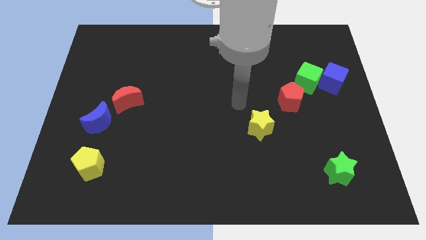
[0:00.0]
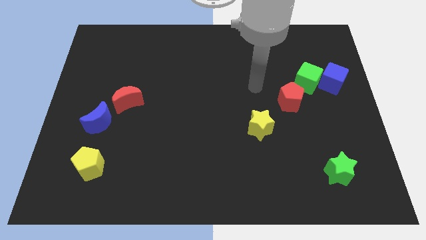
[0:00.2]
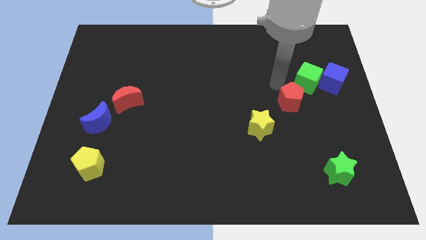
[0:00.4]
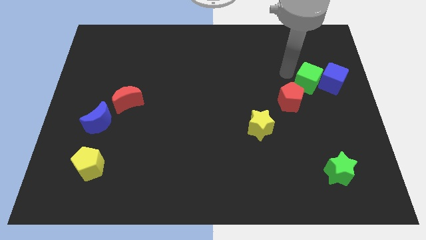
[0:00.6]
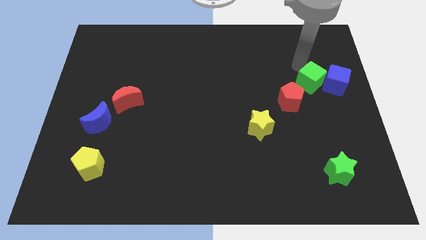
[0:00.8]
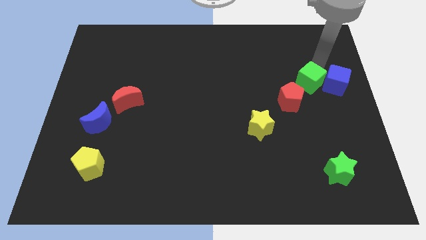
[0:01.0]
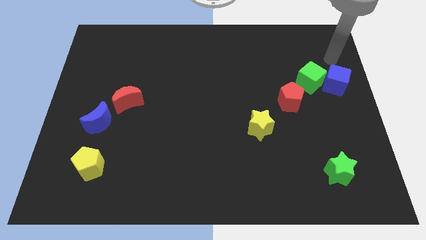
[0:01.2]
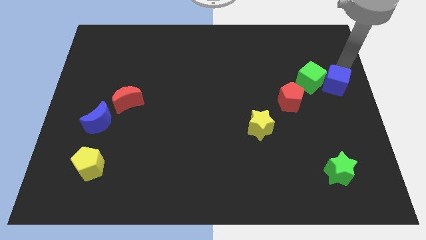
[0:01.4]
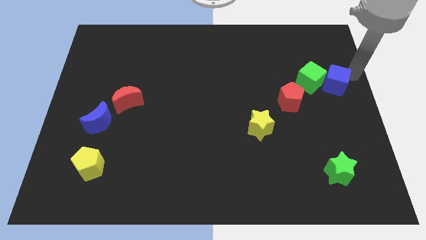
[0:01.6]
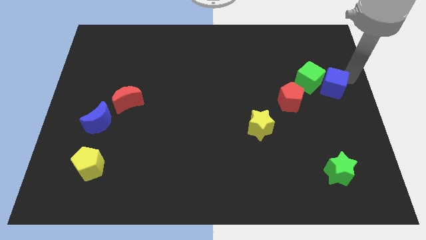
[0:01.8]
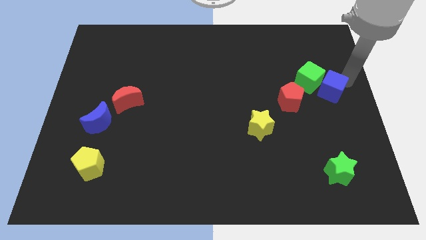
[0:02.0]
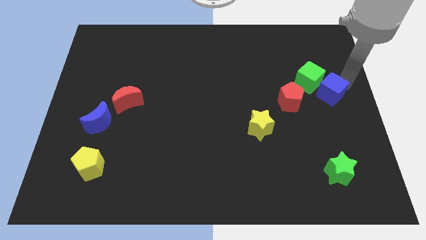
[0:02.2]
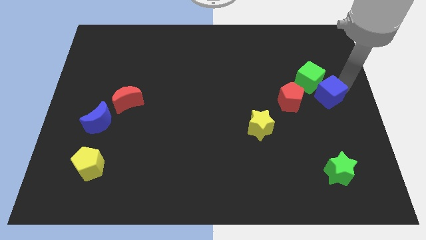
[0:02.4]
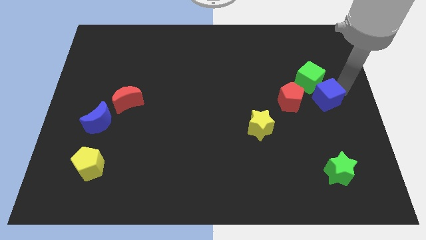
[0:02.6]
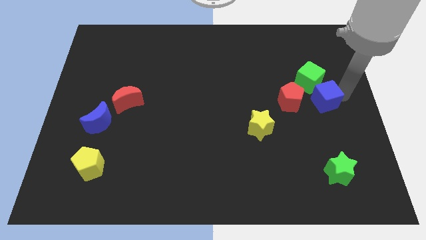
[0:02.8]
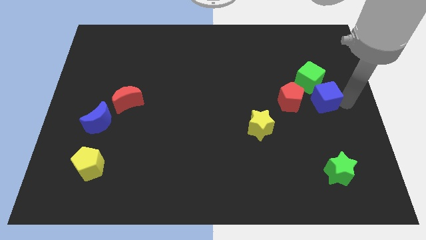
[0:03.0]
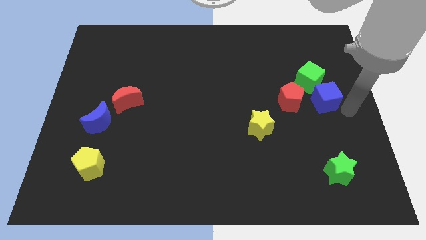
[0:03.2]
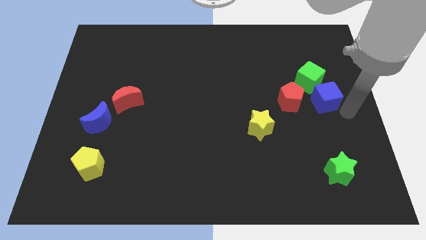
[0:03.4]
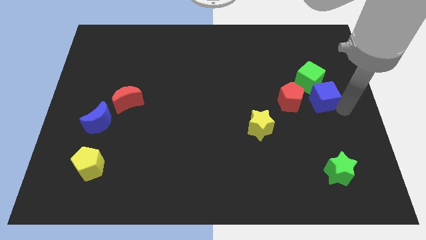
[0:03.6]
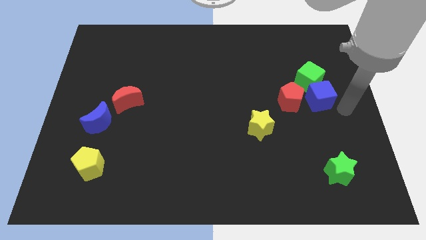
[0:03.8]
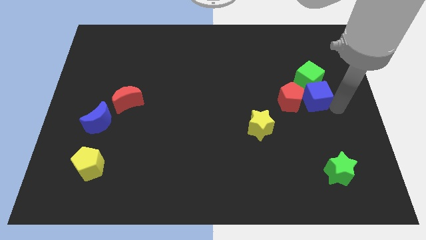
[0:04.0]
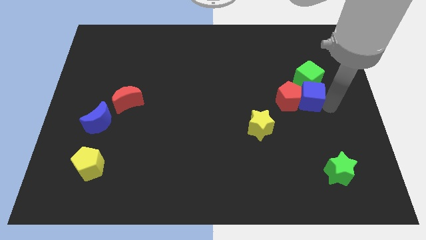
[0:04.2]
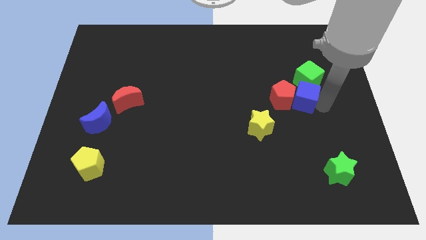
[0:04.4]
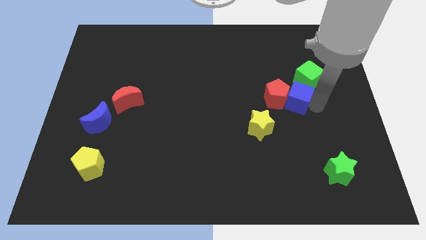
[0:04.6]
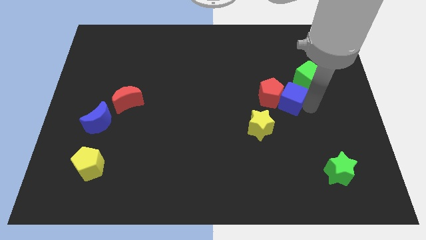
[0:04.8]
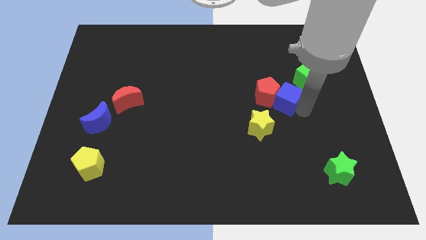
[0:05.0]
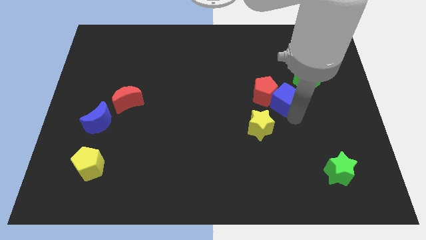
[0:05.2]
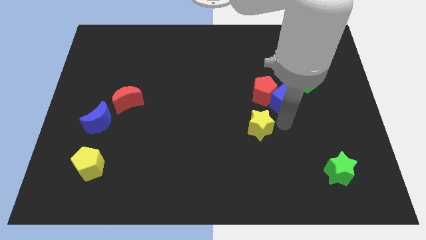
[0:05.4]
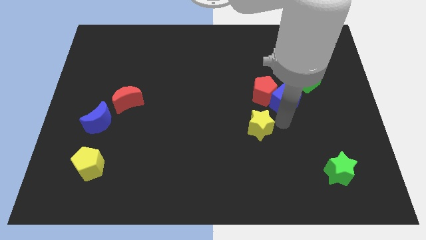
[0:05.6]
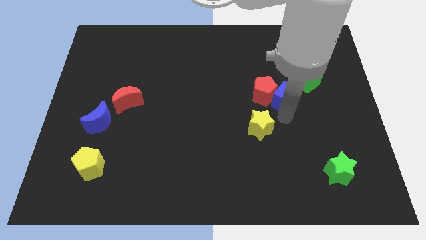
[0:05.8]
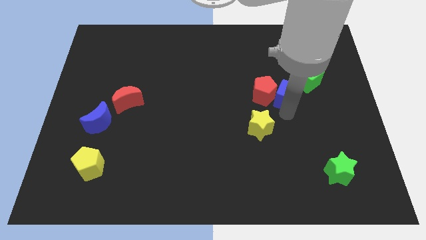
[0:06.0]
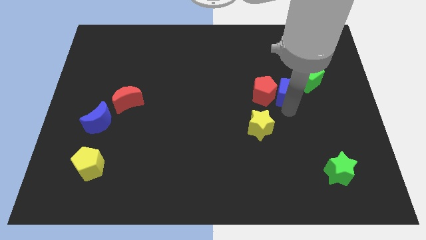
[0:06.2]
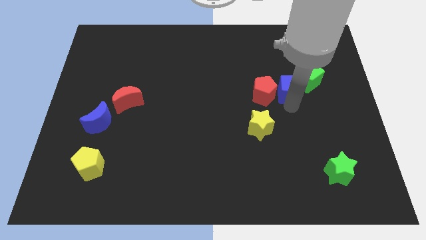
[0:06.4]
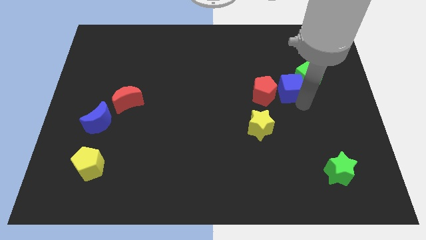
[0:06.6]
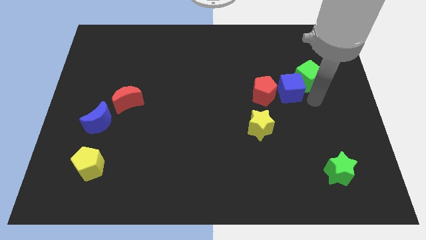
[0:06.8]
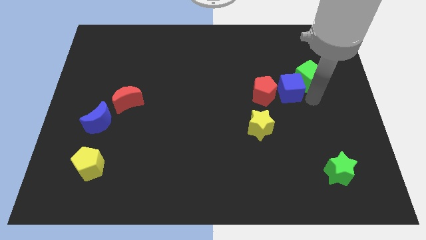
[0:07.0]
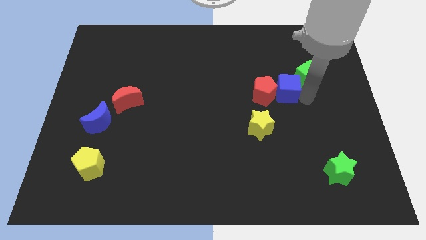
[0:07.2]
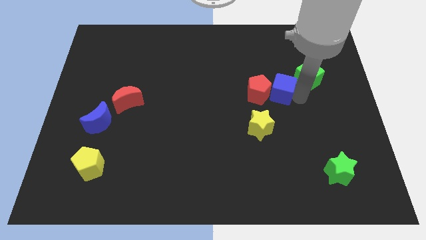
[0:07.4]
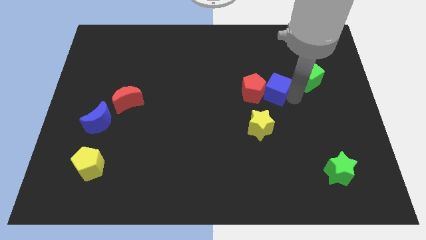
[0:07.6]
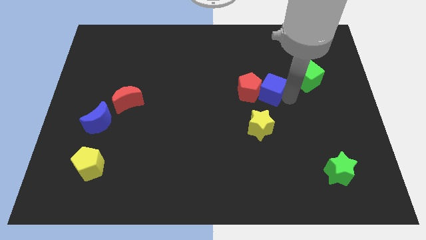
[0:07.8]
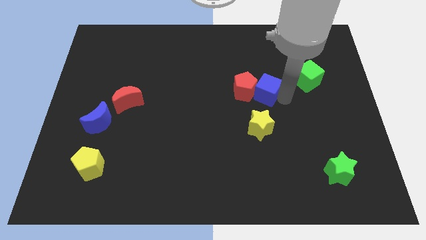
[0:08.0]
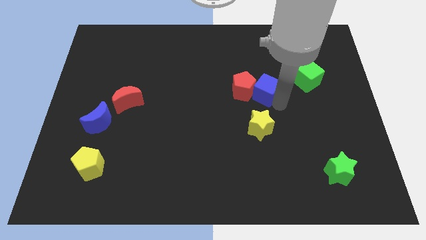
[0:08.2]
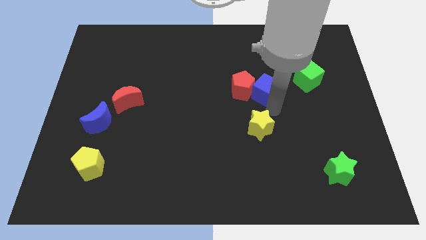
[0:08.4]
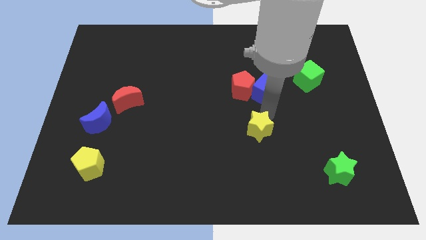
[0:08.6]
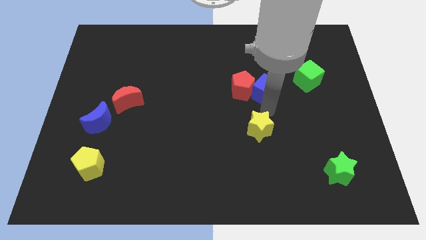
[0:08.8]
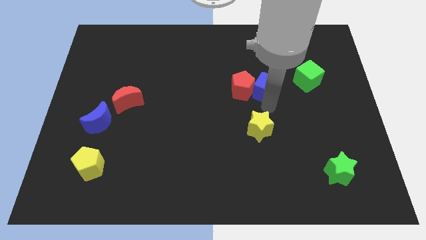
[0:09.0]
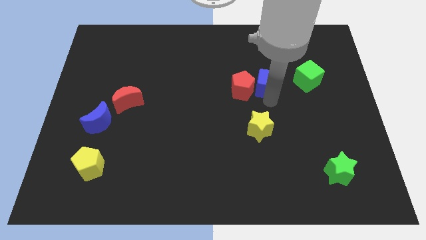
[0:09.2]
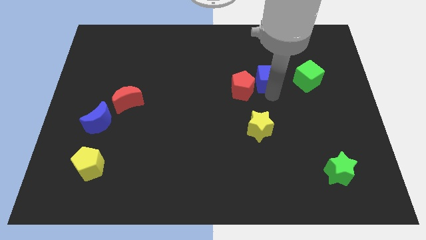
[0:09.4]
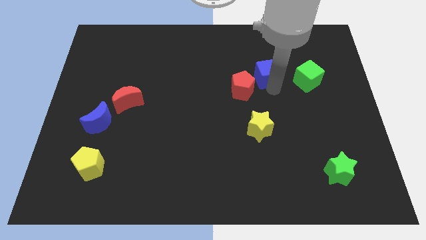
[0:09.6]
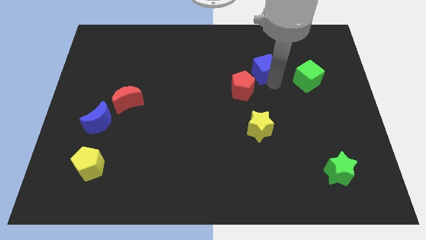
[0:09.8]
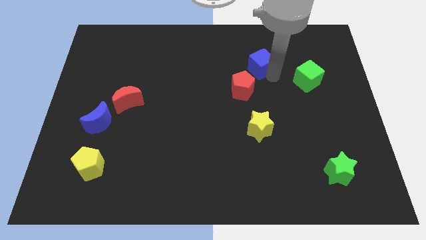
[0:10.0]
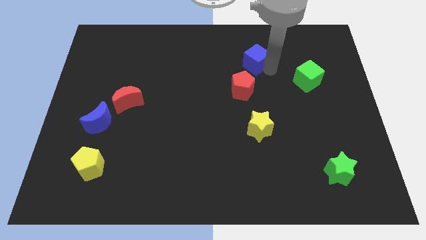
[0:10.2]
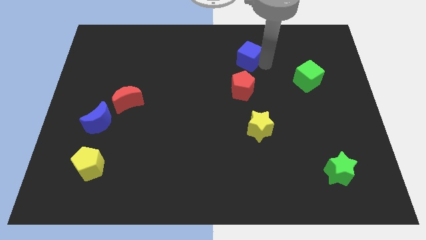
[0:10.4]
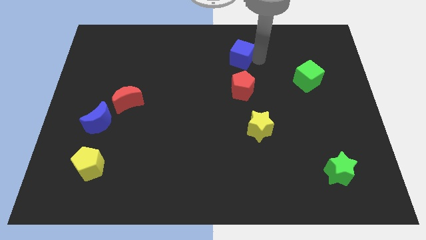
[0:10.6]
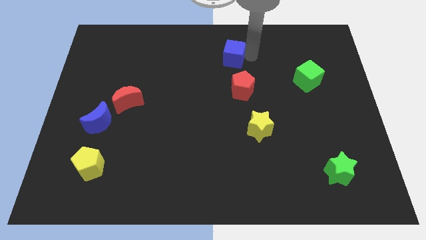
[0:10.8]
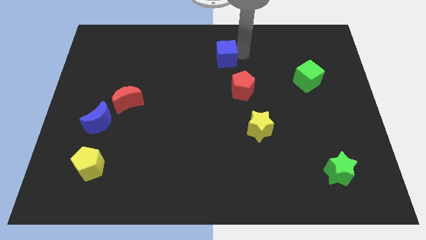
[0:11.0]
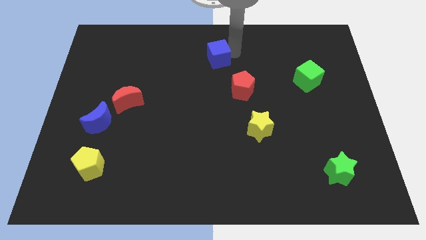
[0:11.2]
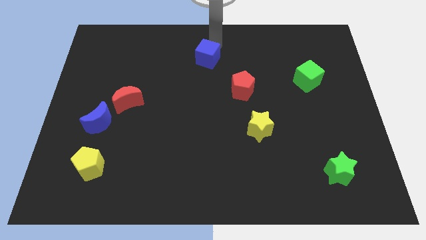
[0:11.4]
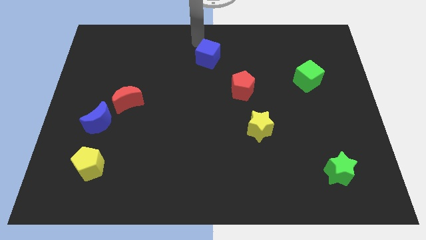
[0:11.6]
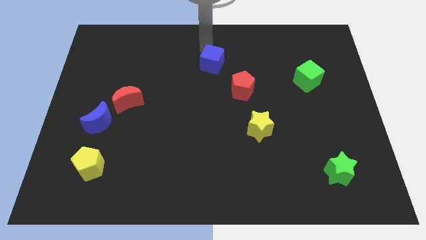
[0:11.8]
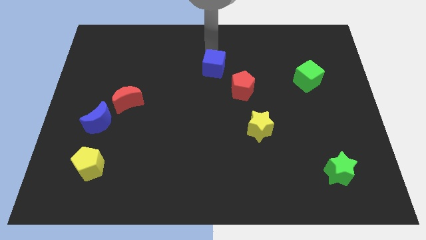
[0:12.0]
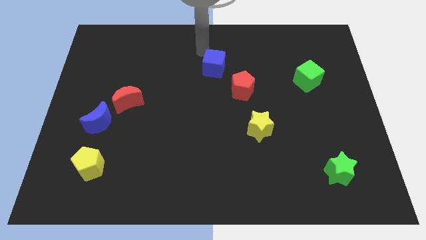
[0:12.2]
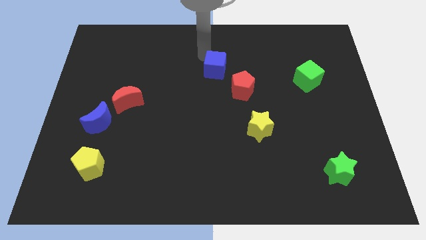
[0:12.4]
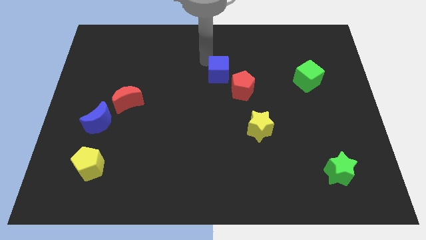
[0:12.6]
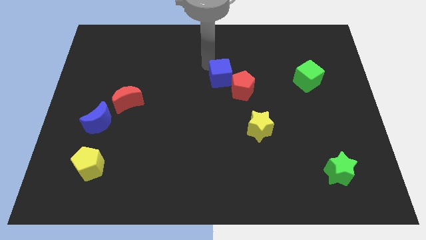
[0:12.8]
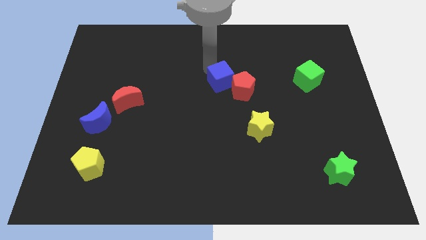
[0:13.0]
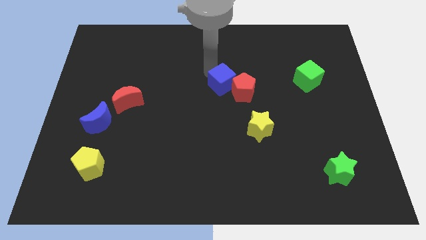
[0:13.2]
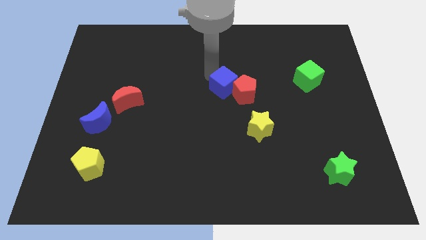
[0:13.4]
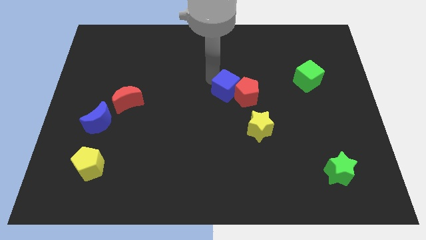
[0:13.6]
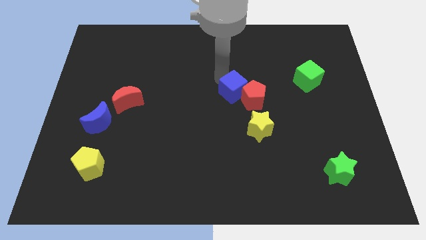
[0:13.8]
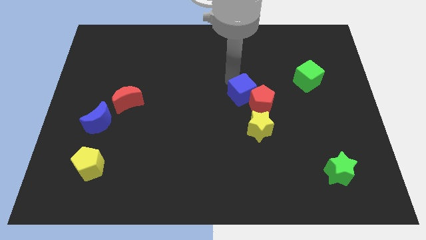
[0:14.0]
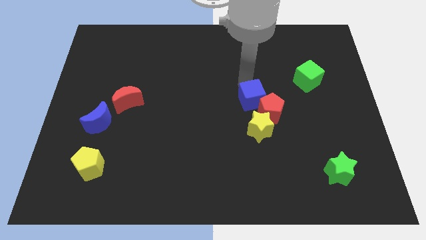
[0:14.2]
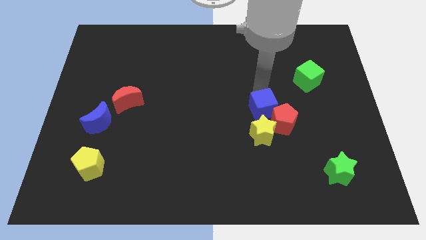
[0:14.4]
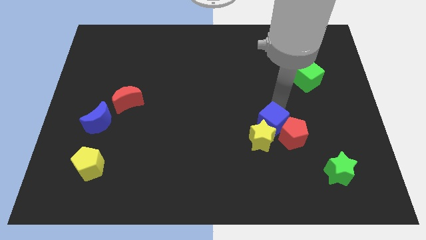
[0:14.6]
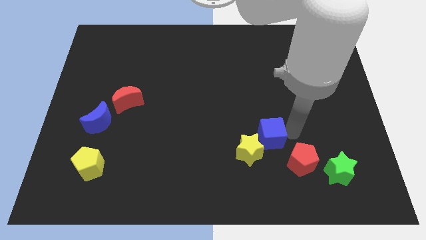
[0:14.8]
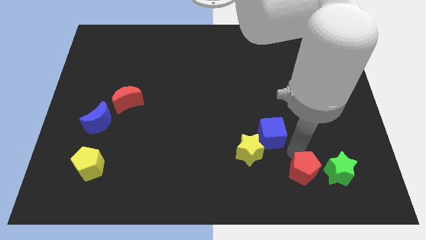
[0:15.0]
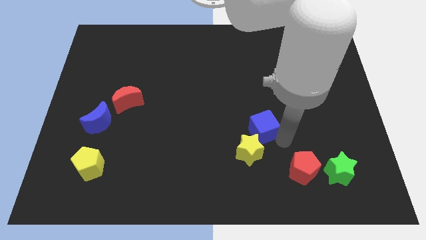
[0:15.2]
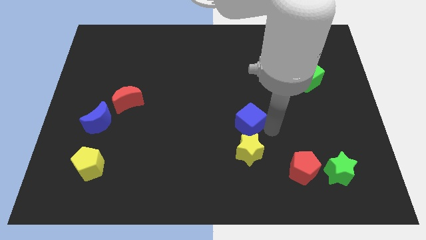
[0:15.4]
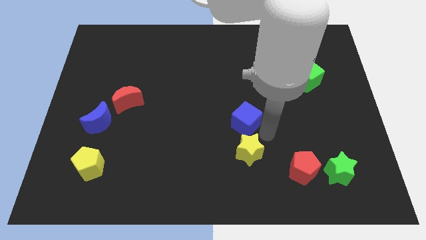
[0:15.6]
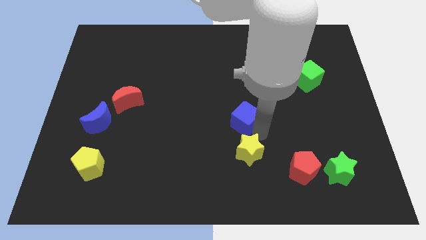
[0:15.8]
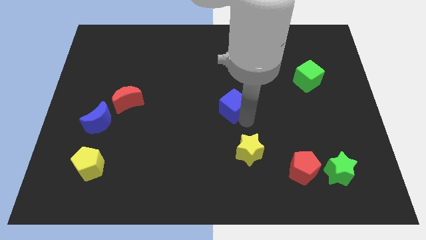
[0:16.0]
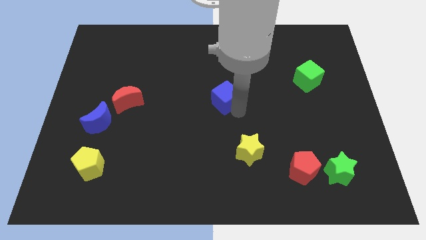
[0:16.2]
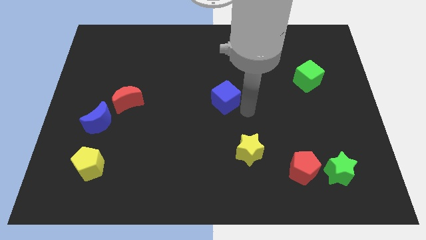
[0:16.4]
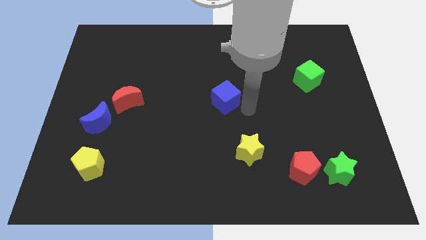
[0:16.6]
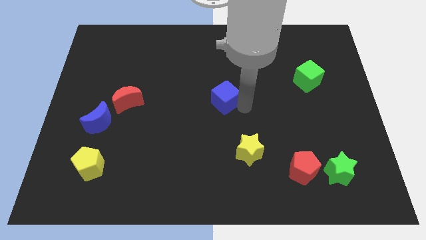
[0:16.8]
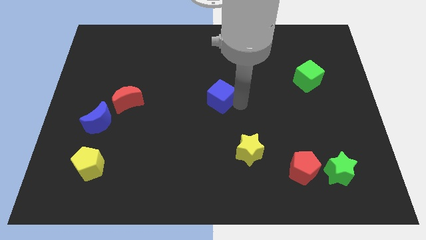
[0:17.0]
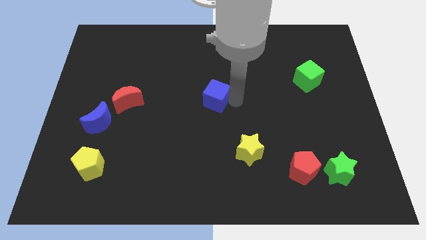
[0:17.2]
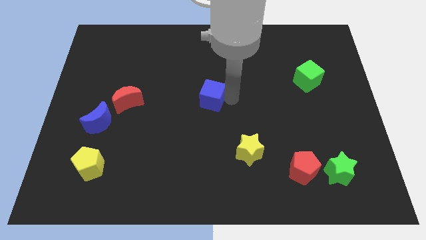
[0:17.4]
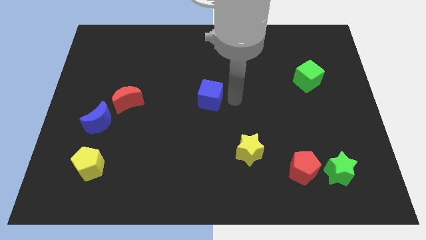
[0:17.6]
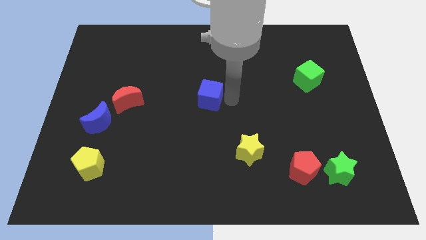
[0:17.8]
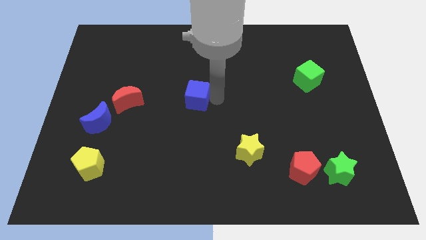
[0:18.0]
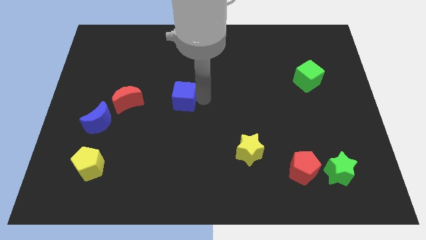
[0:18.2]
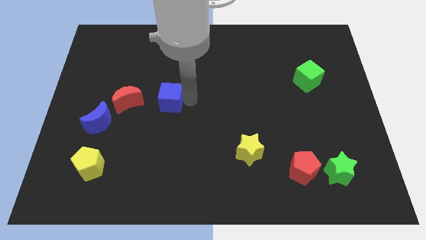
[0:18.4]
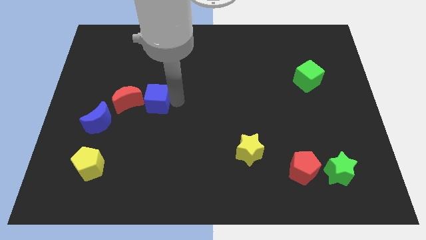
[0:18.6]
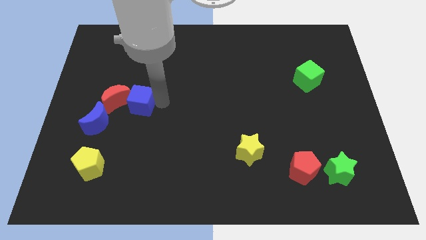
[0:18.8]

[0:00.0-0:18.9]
push the blue cube close to the red moon
